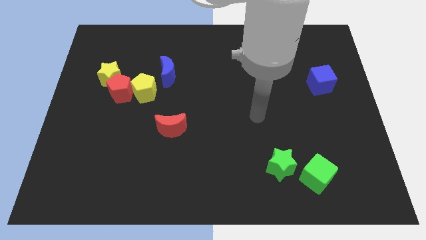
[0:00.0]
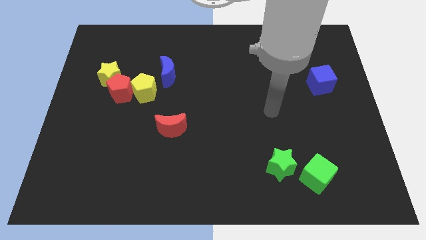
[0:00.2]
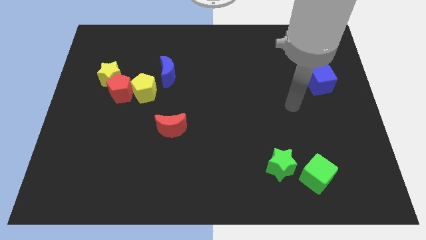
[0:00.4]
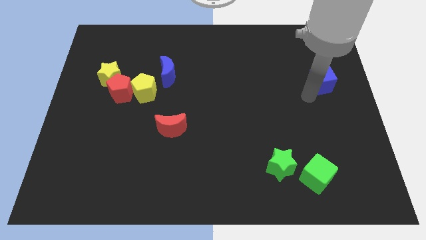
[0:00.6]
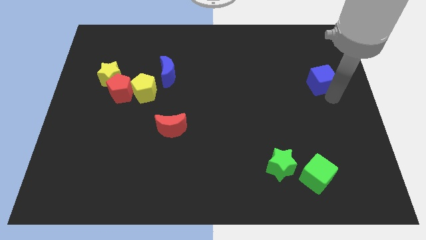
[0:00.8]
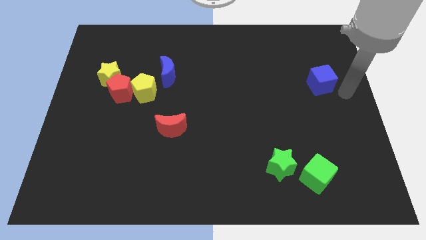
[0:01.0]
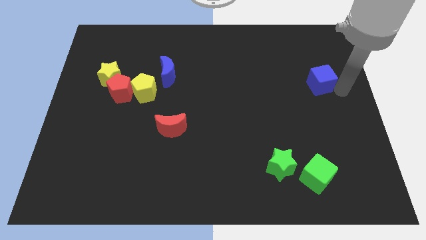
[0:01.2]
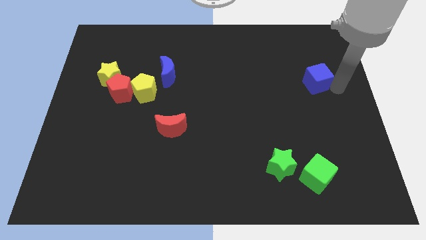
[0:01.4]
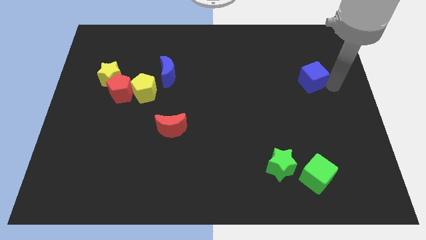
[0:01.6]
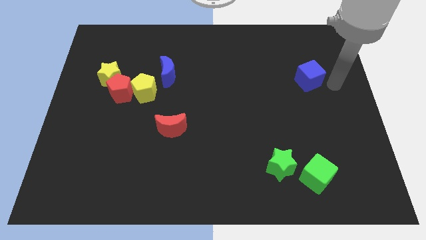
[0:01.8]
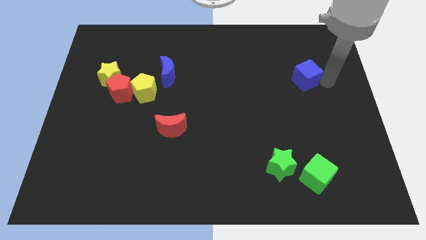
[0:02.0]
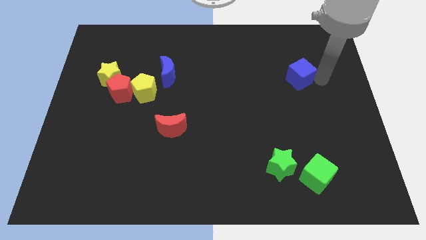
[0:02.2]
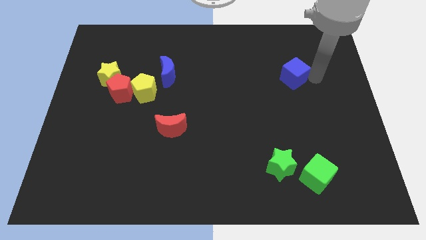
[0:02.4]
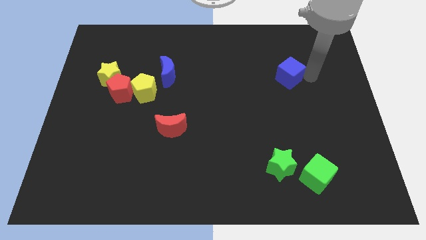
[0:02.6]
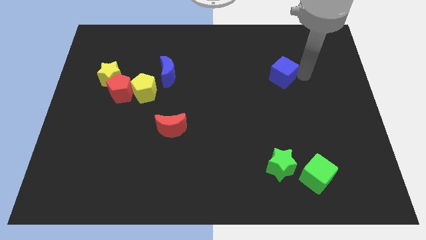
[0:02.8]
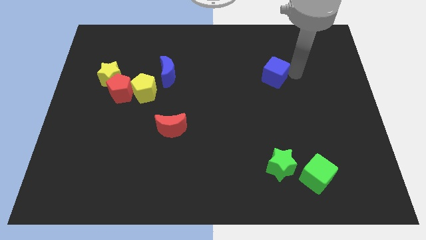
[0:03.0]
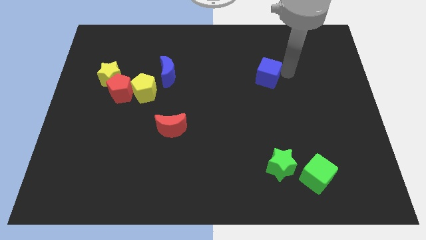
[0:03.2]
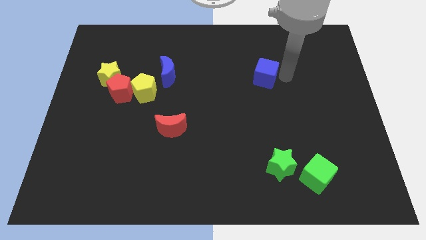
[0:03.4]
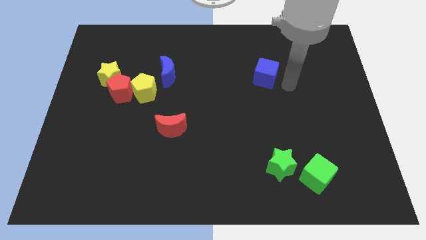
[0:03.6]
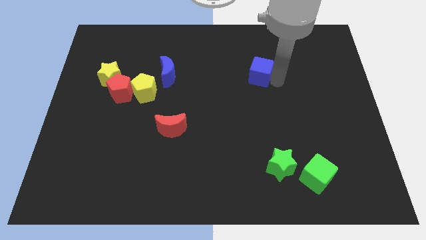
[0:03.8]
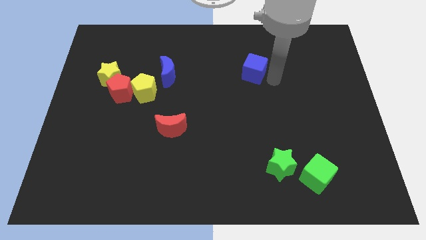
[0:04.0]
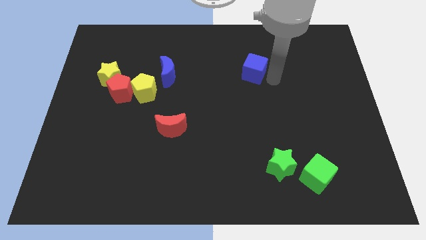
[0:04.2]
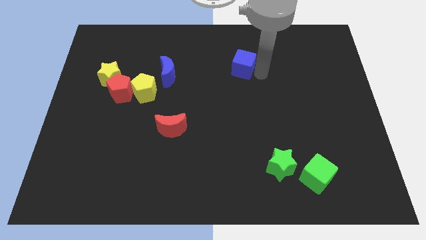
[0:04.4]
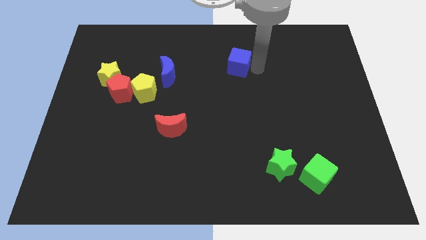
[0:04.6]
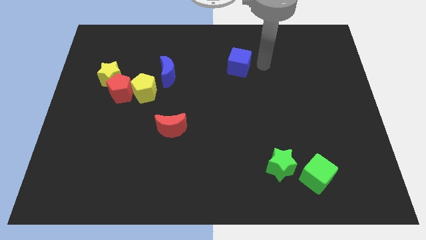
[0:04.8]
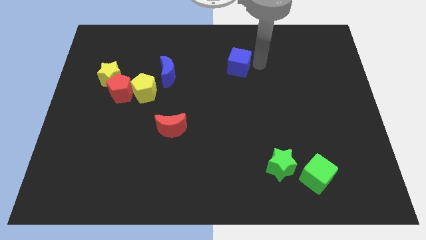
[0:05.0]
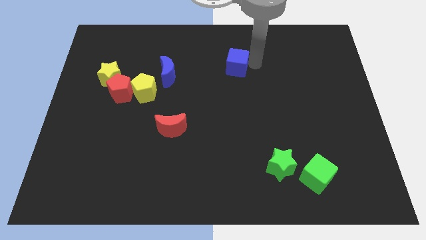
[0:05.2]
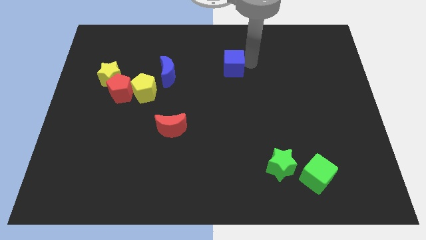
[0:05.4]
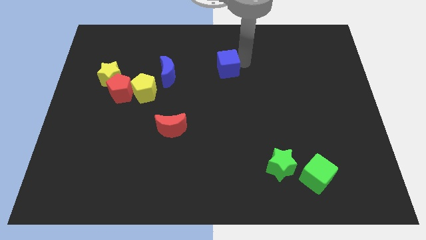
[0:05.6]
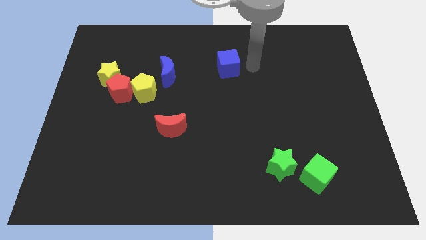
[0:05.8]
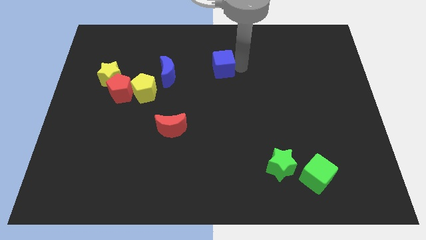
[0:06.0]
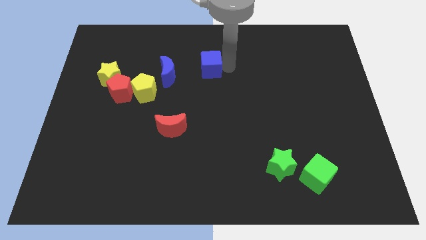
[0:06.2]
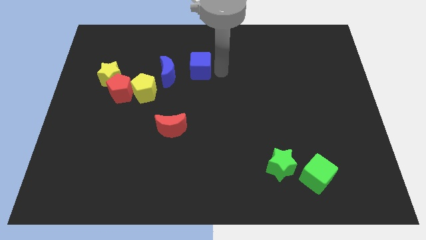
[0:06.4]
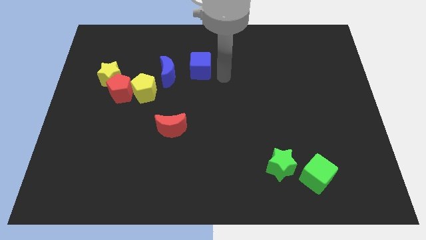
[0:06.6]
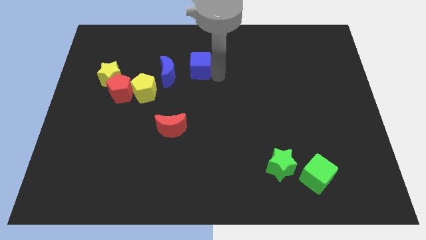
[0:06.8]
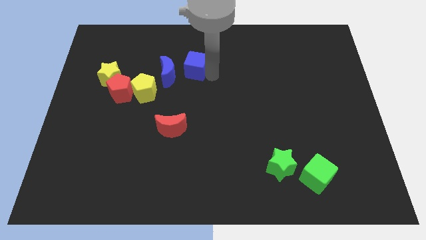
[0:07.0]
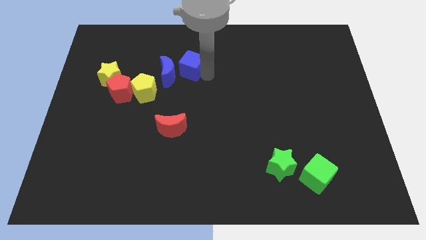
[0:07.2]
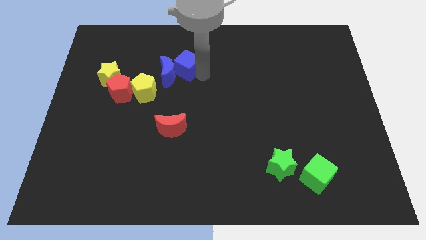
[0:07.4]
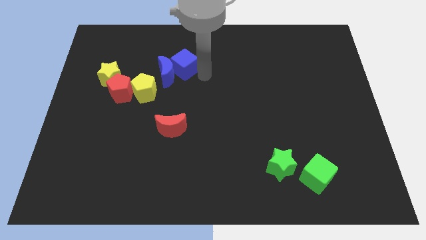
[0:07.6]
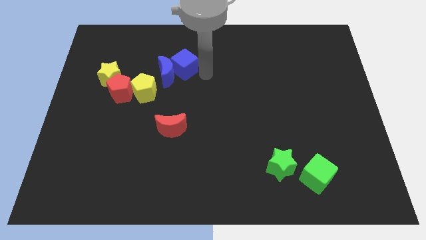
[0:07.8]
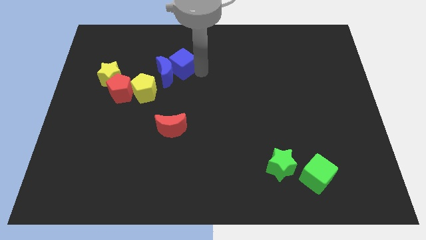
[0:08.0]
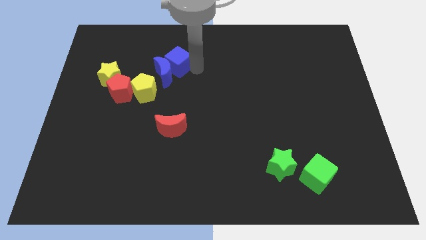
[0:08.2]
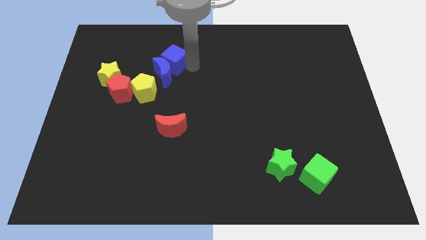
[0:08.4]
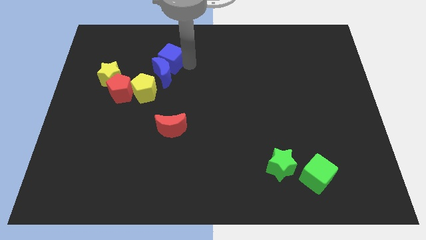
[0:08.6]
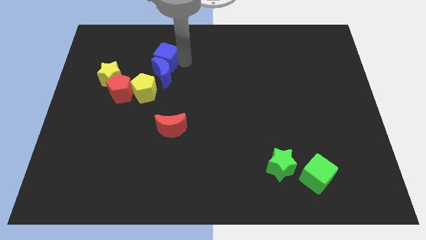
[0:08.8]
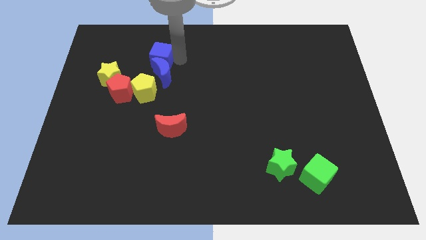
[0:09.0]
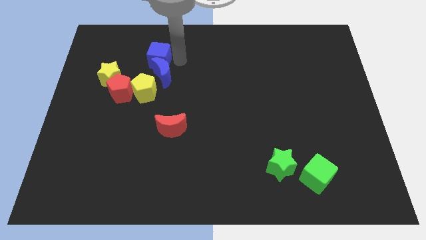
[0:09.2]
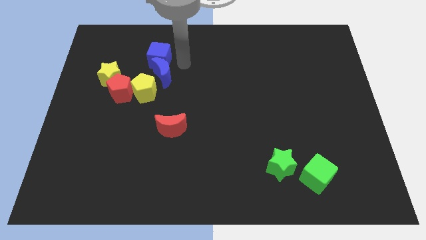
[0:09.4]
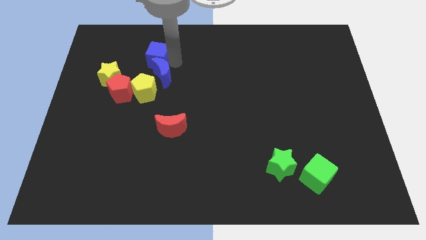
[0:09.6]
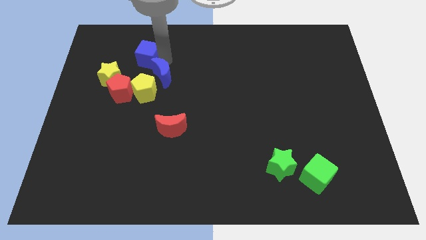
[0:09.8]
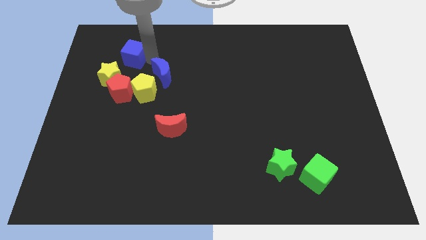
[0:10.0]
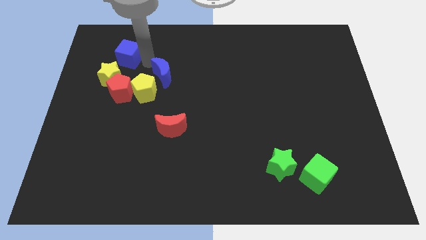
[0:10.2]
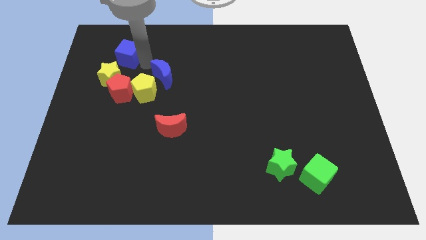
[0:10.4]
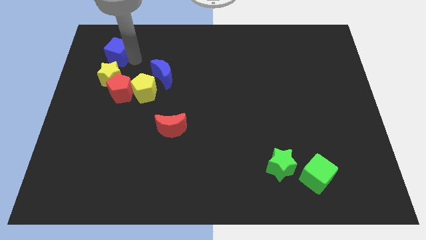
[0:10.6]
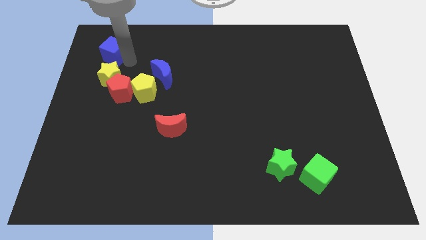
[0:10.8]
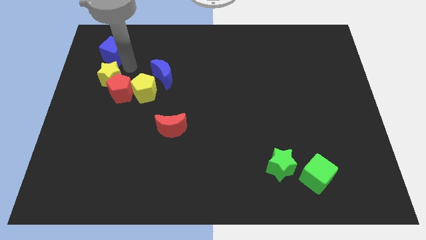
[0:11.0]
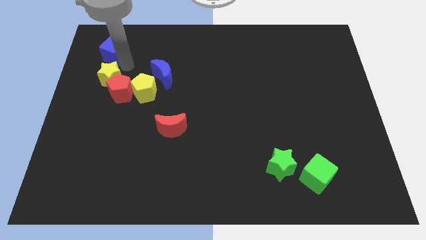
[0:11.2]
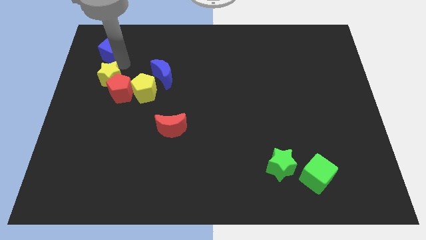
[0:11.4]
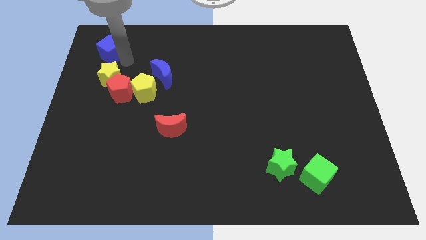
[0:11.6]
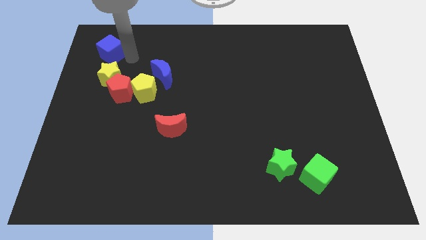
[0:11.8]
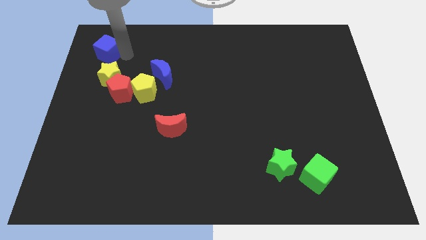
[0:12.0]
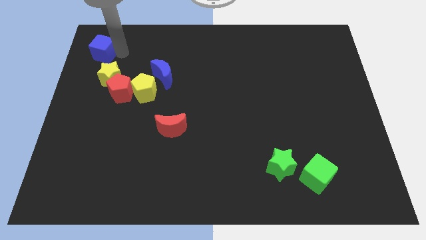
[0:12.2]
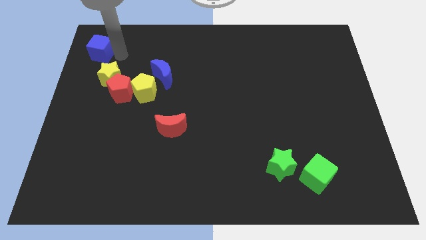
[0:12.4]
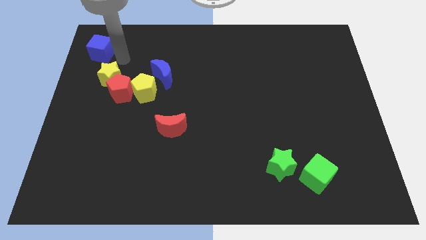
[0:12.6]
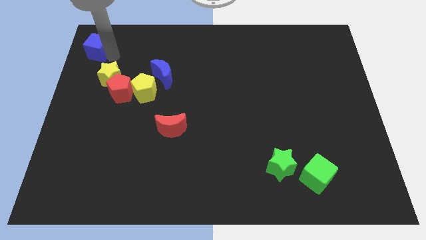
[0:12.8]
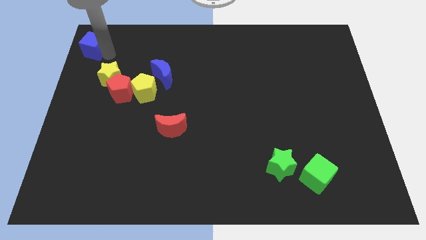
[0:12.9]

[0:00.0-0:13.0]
slide the blue cube to the top left
